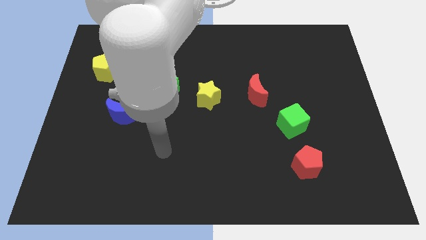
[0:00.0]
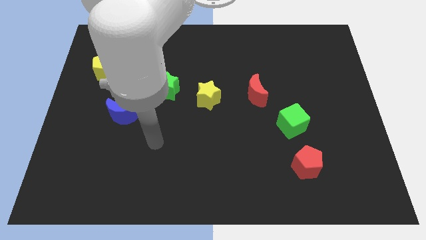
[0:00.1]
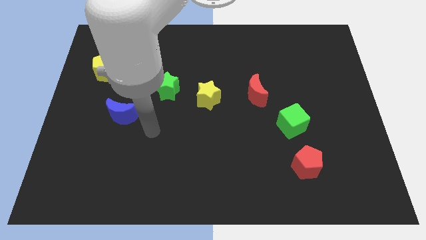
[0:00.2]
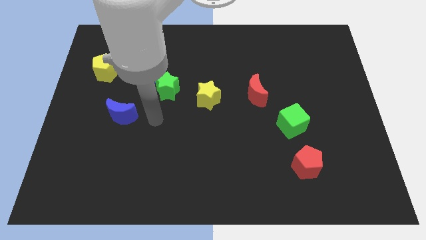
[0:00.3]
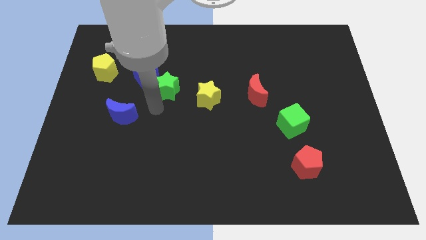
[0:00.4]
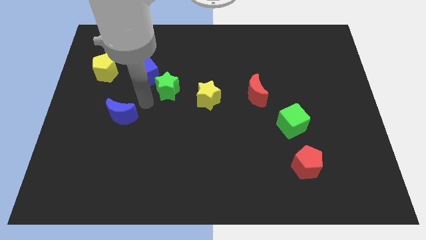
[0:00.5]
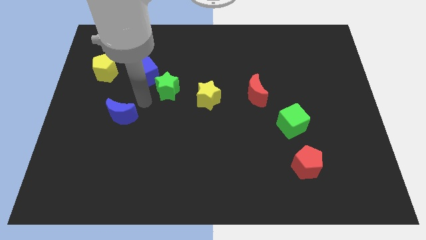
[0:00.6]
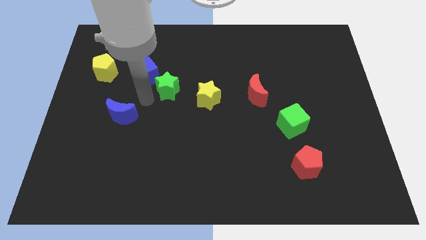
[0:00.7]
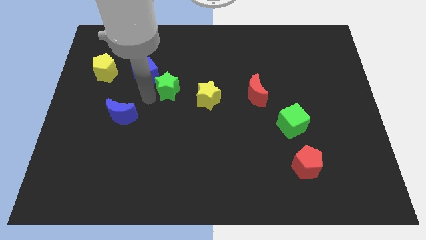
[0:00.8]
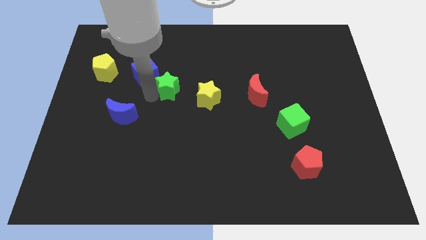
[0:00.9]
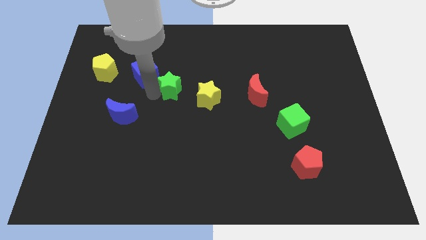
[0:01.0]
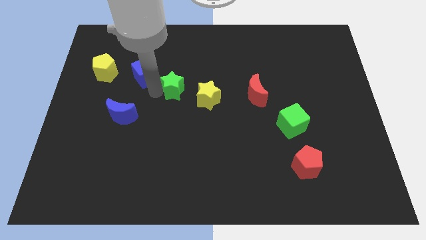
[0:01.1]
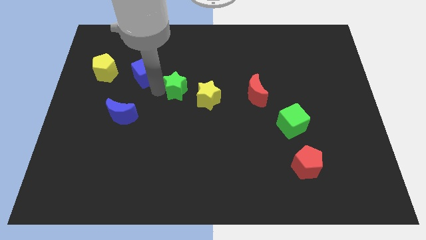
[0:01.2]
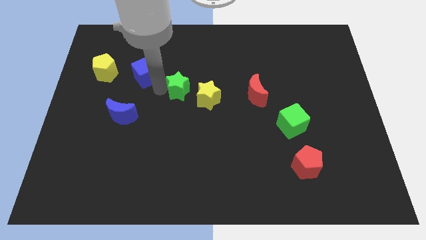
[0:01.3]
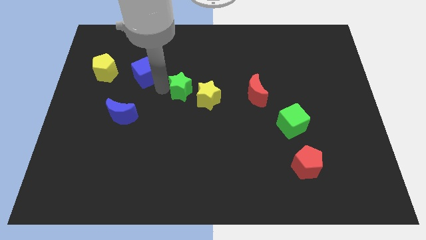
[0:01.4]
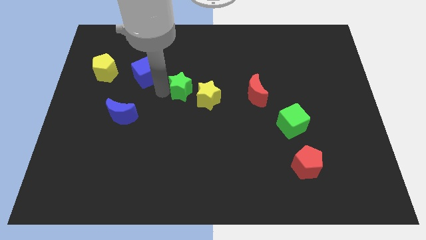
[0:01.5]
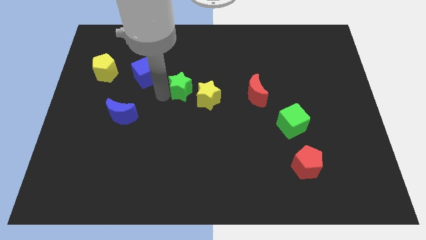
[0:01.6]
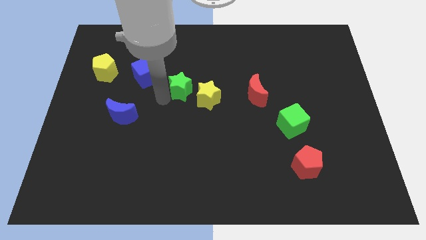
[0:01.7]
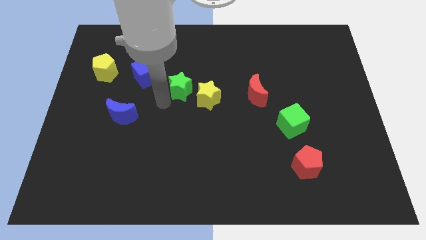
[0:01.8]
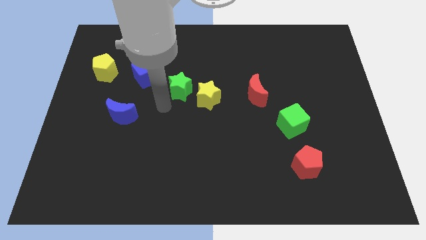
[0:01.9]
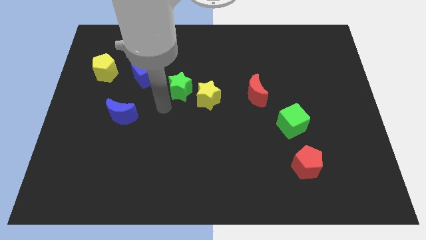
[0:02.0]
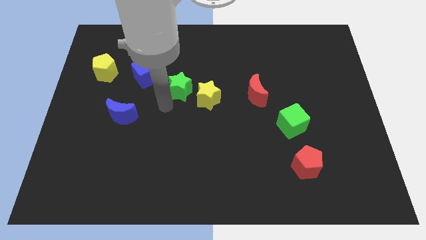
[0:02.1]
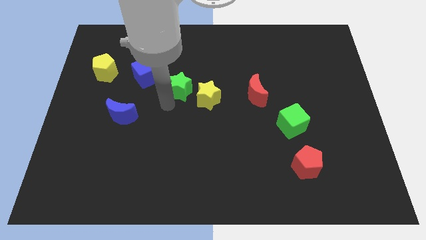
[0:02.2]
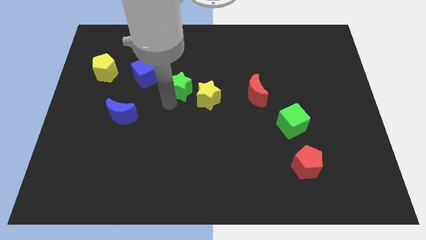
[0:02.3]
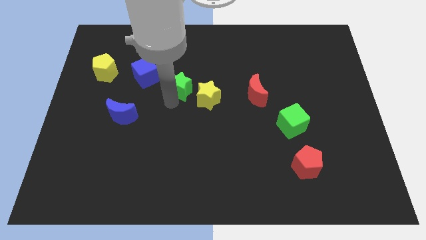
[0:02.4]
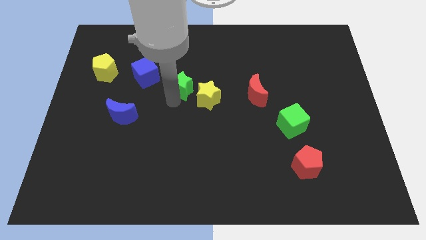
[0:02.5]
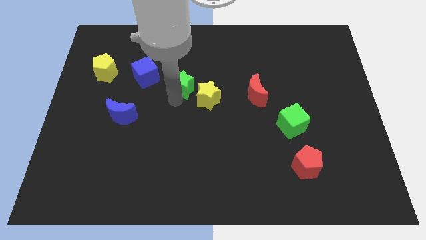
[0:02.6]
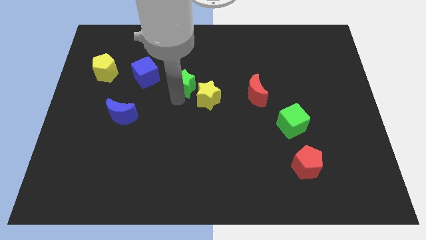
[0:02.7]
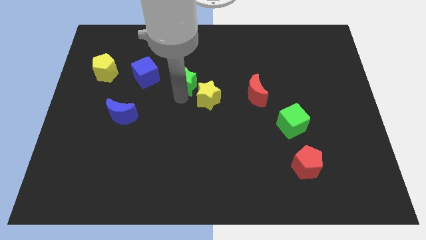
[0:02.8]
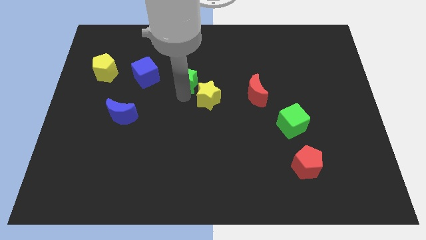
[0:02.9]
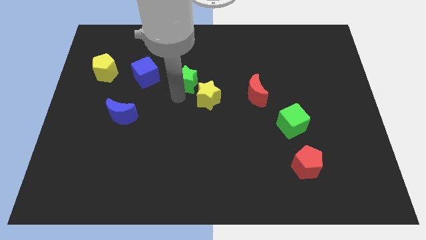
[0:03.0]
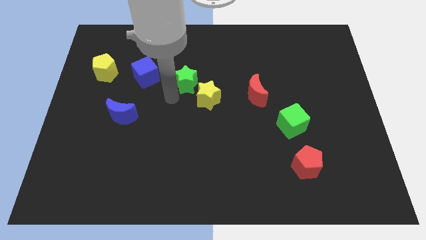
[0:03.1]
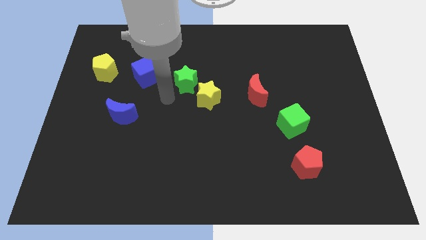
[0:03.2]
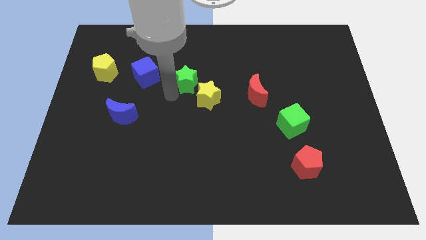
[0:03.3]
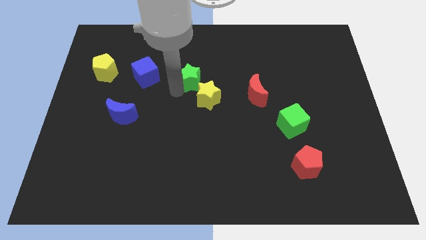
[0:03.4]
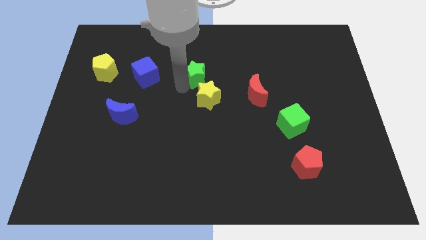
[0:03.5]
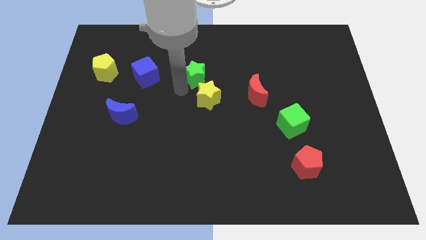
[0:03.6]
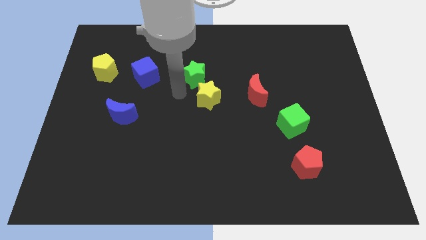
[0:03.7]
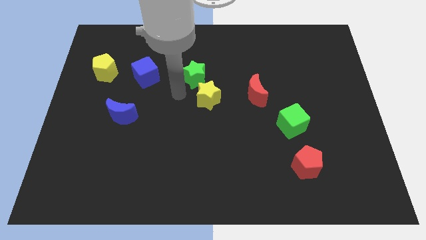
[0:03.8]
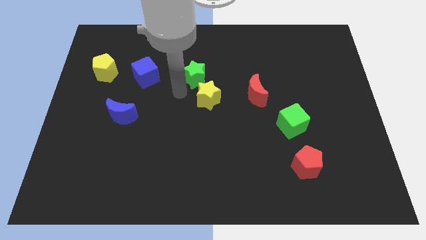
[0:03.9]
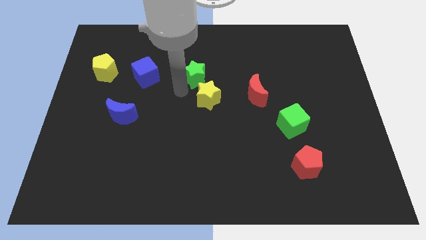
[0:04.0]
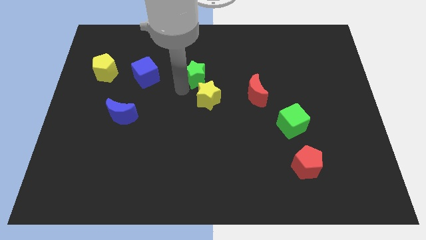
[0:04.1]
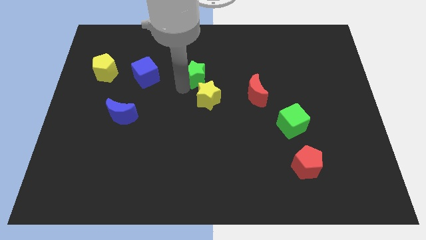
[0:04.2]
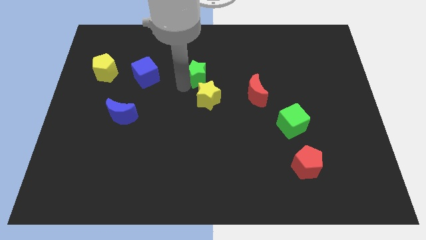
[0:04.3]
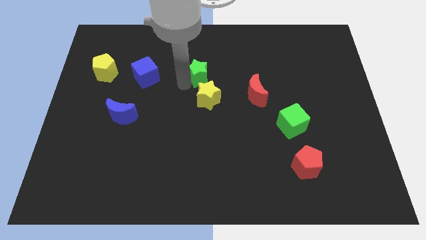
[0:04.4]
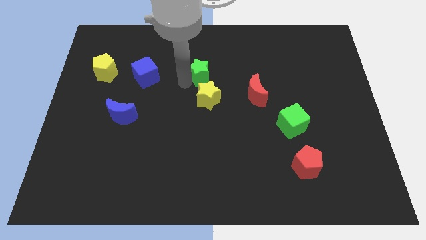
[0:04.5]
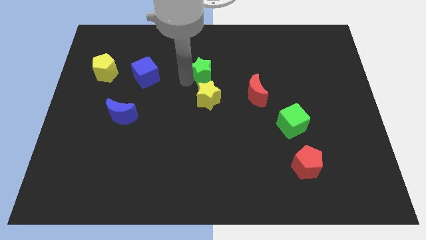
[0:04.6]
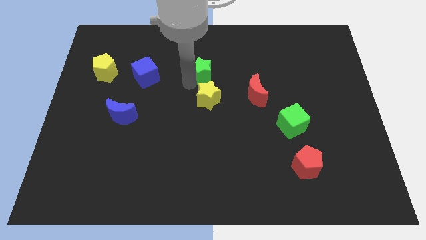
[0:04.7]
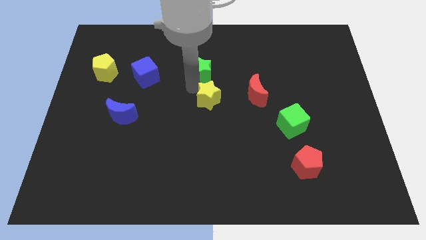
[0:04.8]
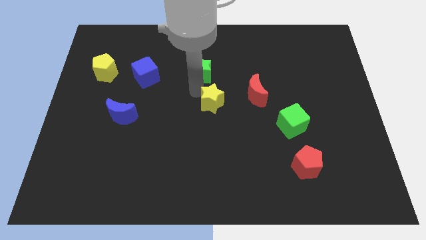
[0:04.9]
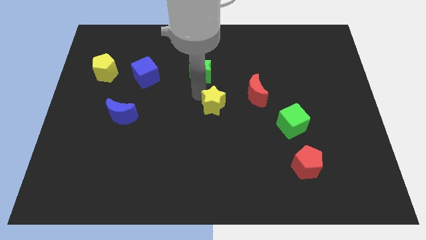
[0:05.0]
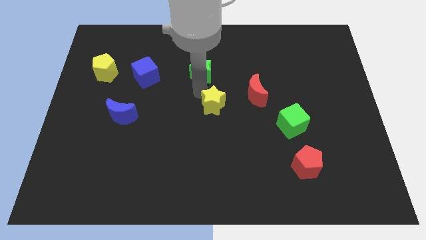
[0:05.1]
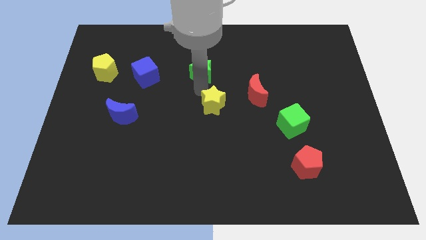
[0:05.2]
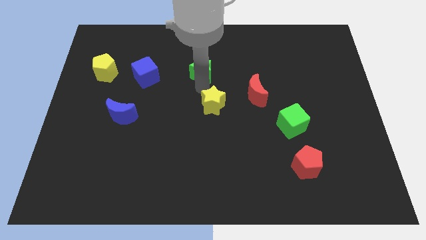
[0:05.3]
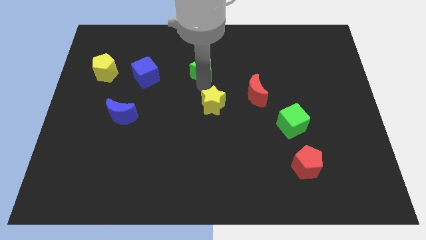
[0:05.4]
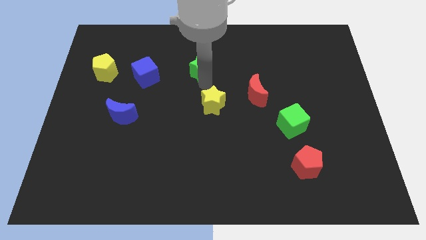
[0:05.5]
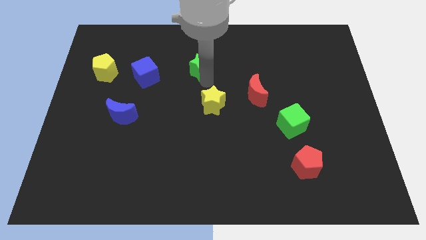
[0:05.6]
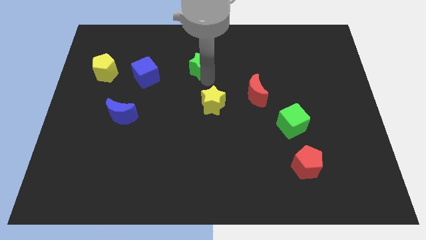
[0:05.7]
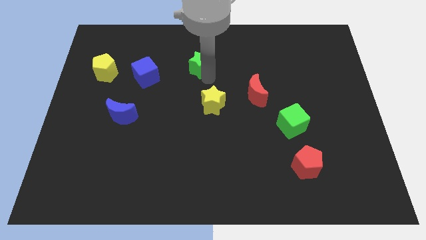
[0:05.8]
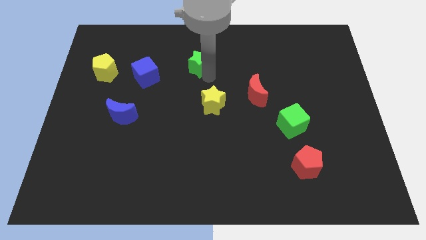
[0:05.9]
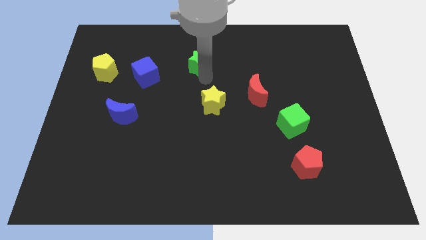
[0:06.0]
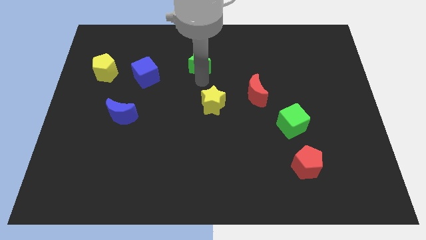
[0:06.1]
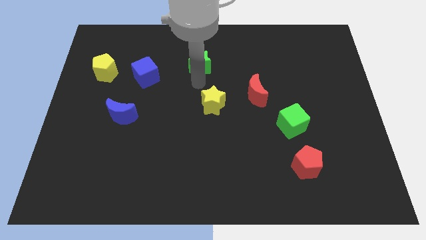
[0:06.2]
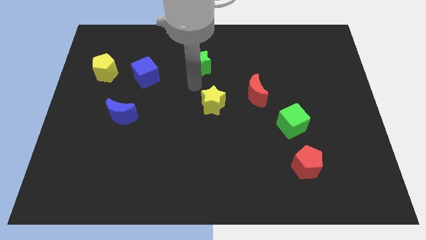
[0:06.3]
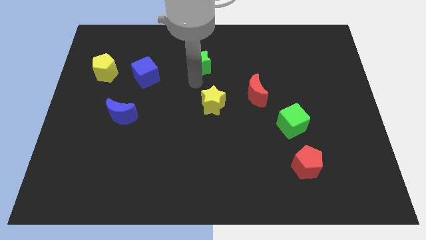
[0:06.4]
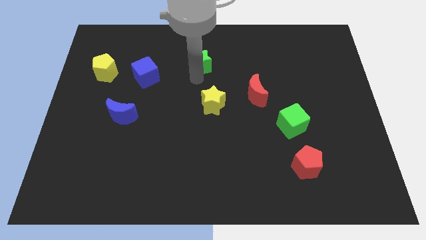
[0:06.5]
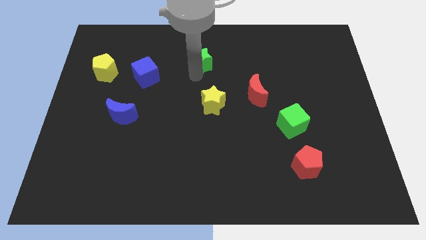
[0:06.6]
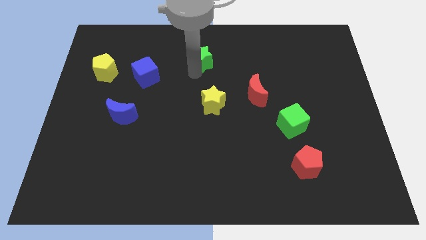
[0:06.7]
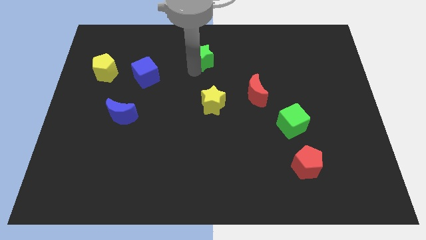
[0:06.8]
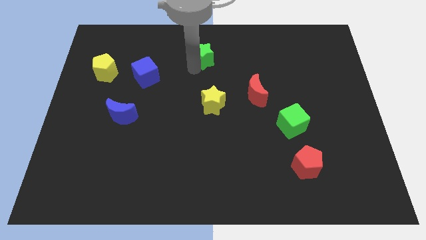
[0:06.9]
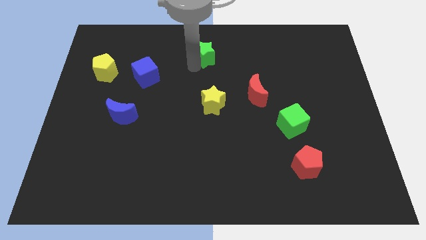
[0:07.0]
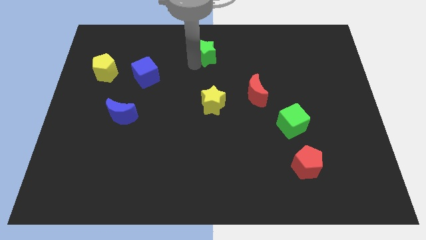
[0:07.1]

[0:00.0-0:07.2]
move the green star to the towards your base
